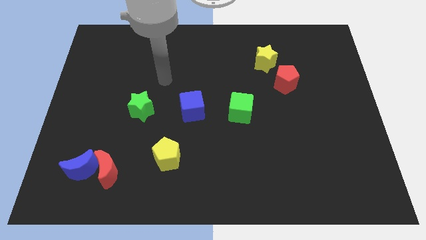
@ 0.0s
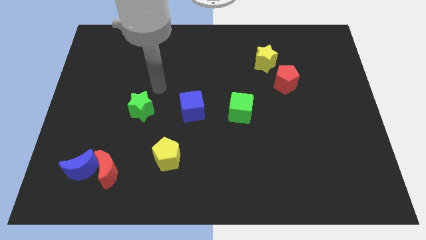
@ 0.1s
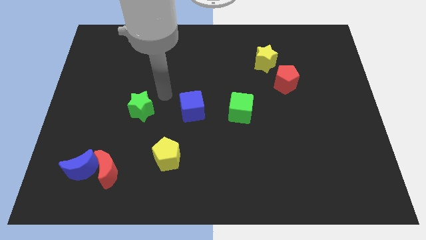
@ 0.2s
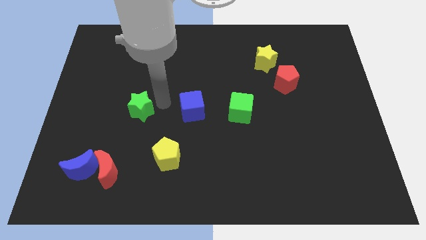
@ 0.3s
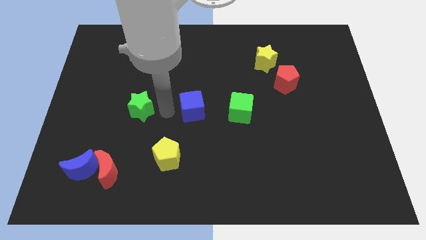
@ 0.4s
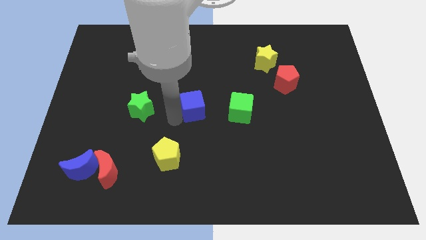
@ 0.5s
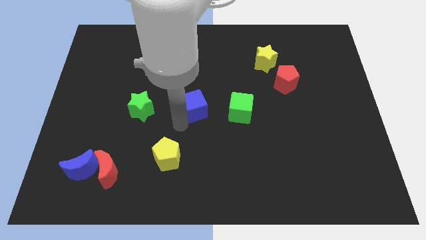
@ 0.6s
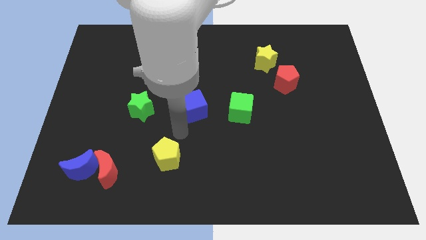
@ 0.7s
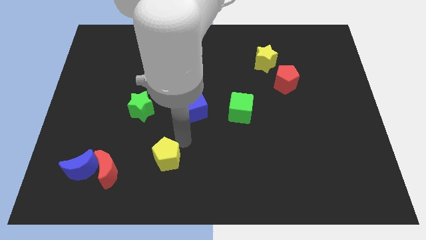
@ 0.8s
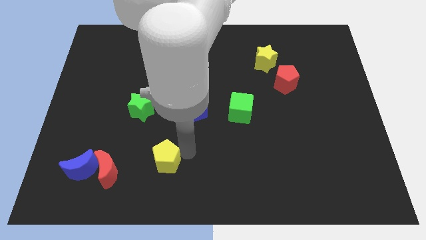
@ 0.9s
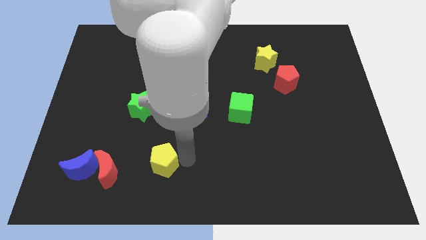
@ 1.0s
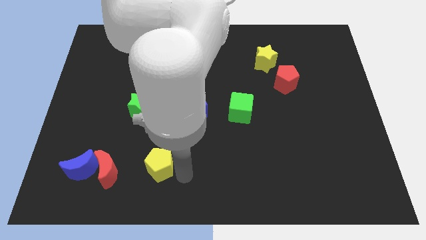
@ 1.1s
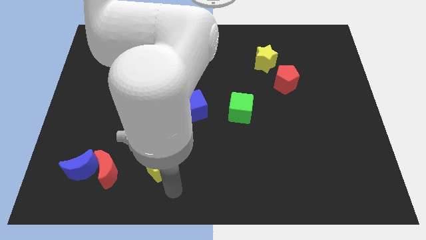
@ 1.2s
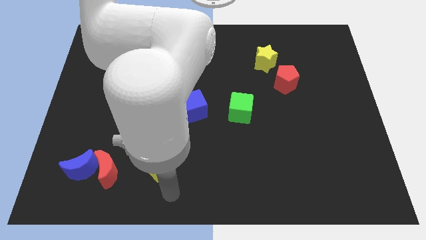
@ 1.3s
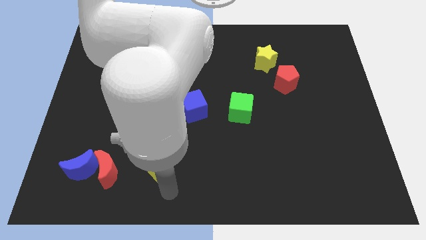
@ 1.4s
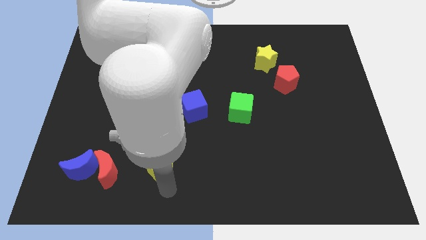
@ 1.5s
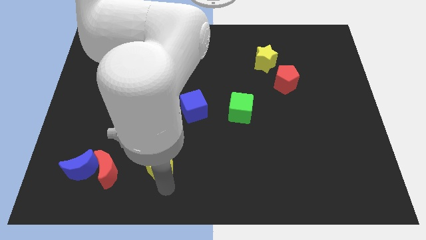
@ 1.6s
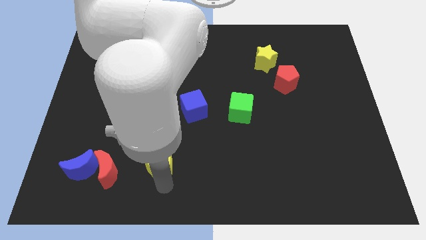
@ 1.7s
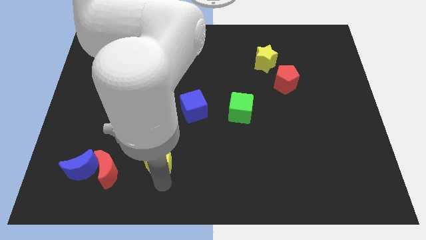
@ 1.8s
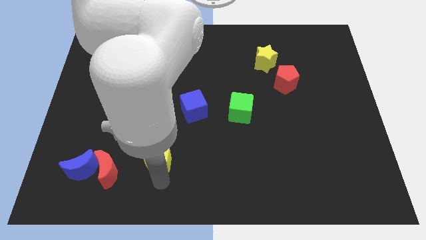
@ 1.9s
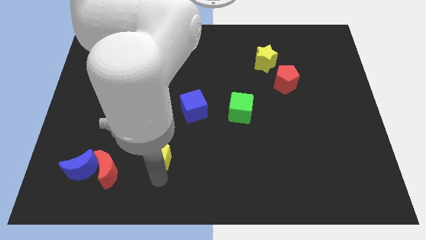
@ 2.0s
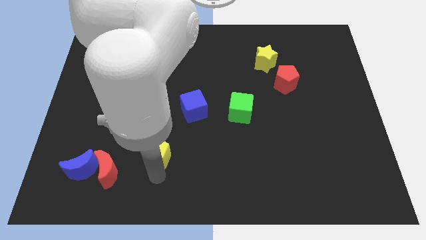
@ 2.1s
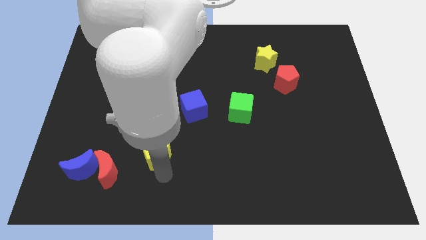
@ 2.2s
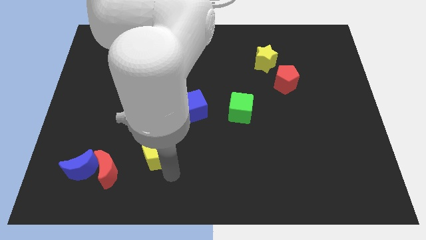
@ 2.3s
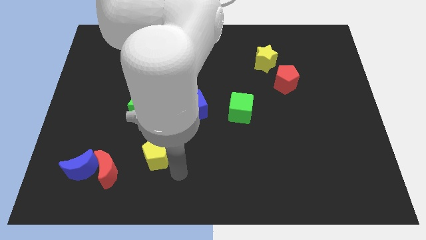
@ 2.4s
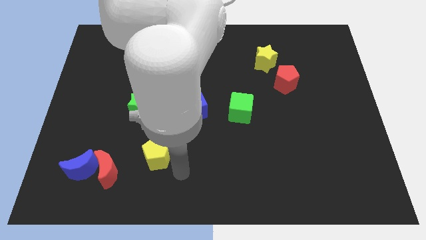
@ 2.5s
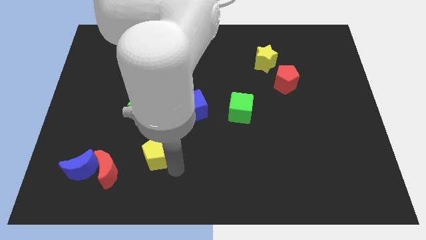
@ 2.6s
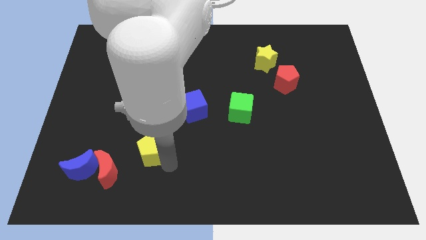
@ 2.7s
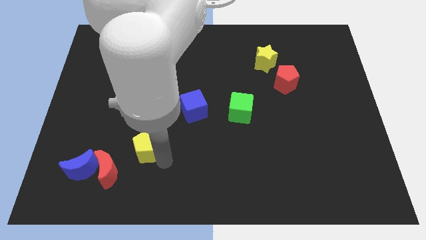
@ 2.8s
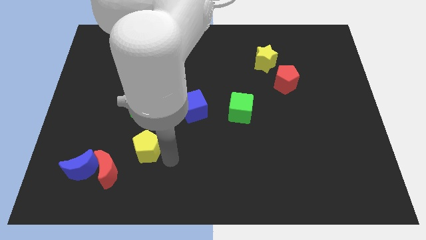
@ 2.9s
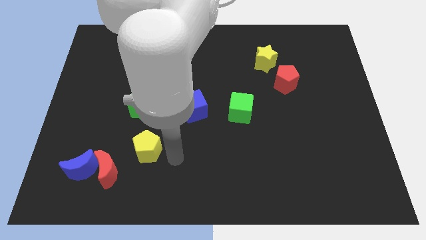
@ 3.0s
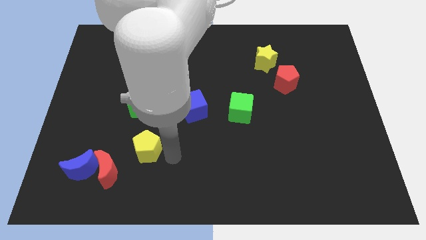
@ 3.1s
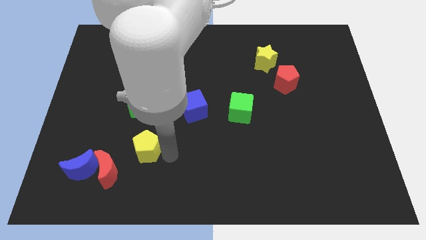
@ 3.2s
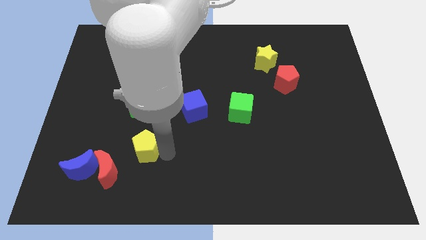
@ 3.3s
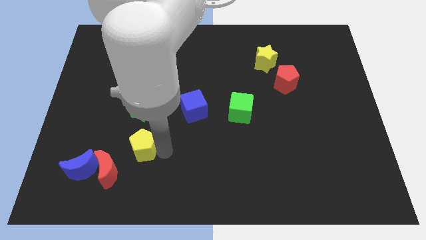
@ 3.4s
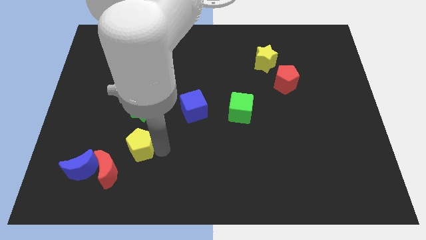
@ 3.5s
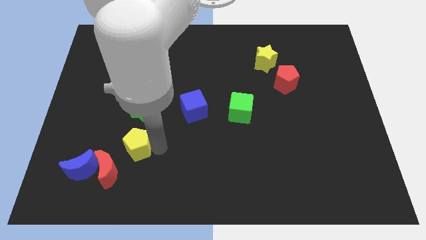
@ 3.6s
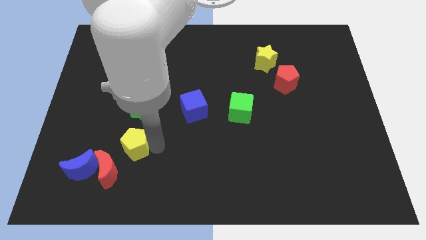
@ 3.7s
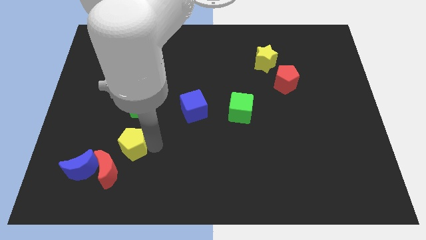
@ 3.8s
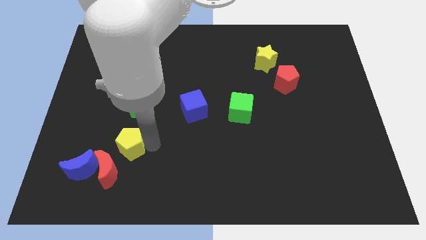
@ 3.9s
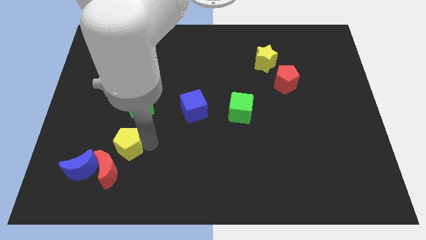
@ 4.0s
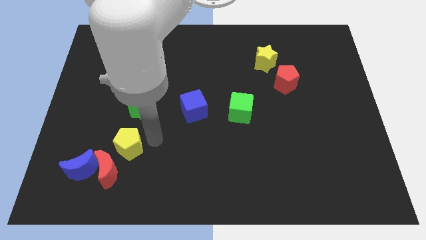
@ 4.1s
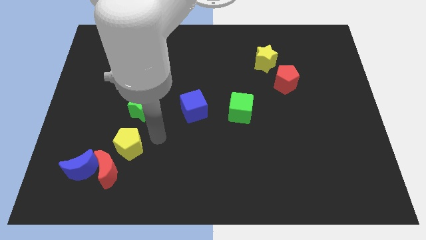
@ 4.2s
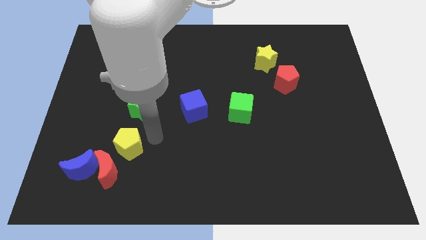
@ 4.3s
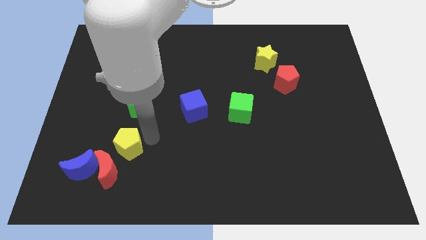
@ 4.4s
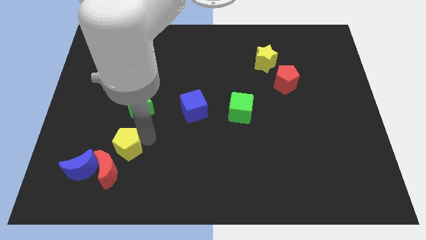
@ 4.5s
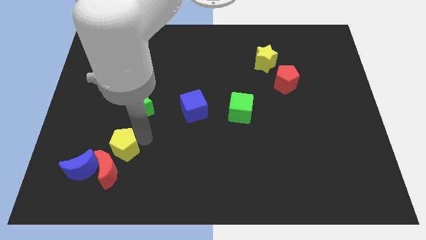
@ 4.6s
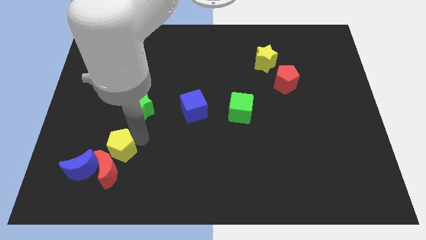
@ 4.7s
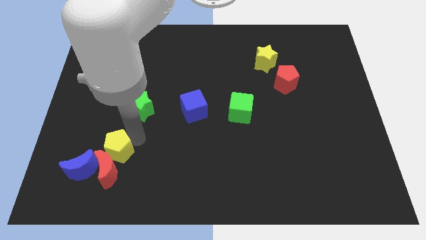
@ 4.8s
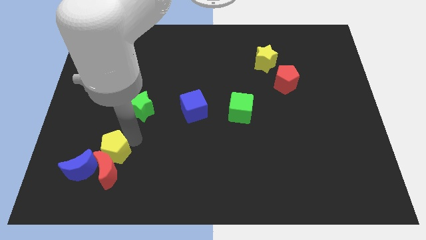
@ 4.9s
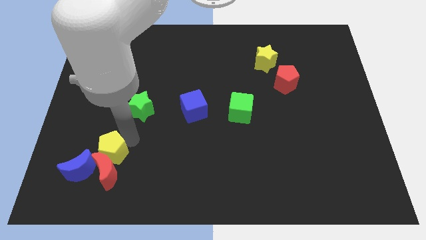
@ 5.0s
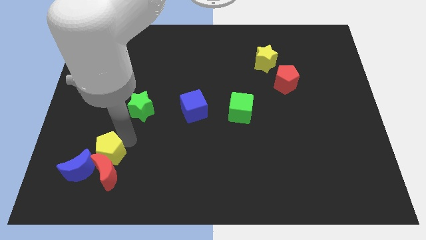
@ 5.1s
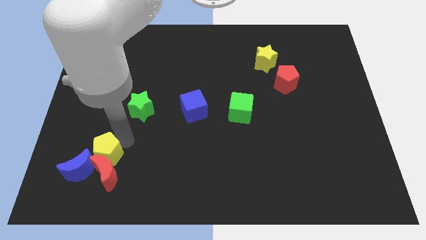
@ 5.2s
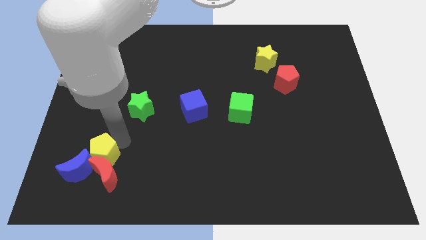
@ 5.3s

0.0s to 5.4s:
push the yellow pentagon close to the blue moon
